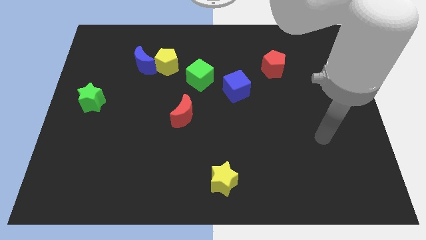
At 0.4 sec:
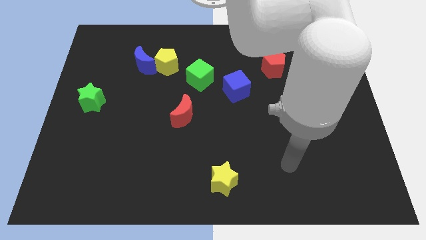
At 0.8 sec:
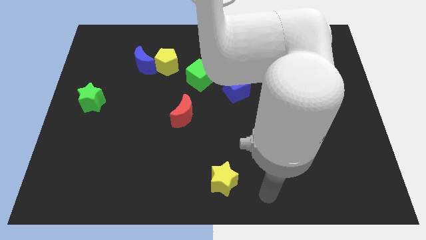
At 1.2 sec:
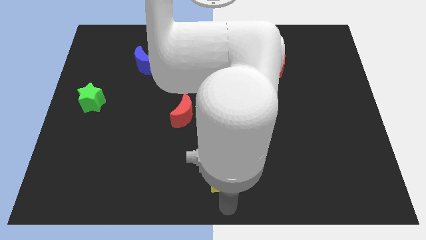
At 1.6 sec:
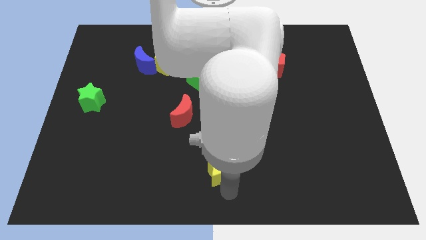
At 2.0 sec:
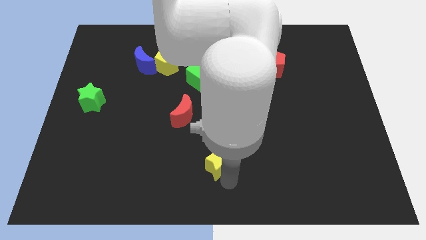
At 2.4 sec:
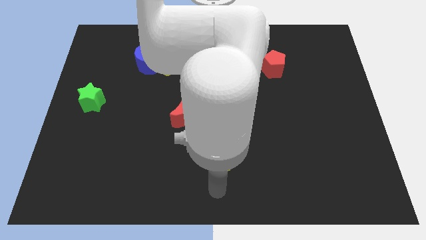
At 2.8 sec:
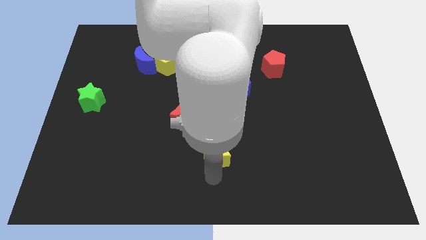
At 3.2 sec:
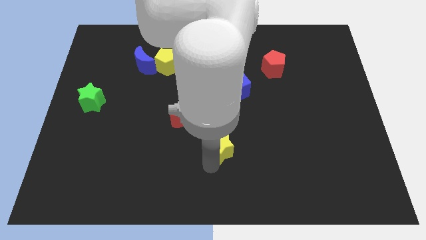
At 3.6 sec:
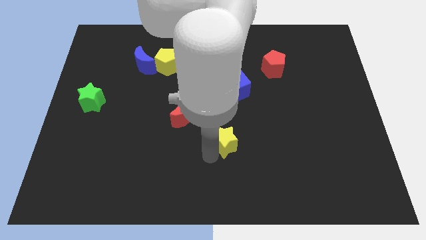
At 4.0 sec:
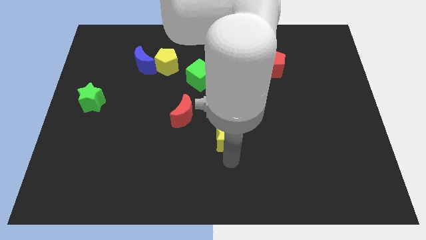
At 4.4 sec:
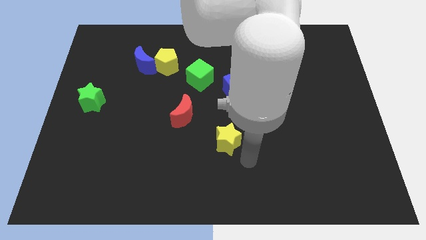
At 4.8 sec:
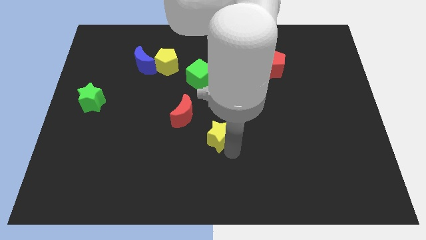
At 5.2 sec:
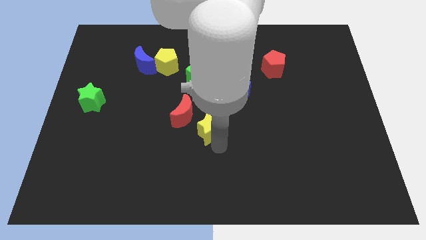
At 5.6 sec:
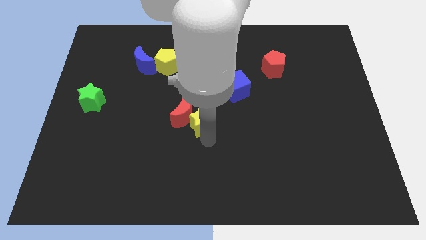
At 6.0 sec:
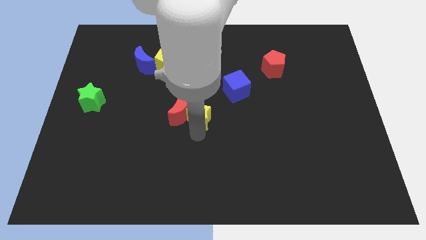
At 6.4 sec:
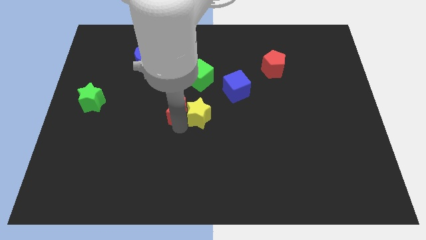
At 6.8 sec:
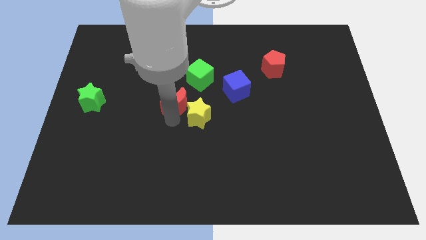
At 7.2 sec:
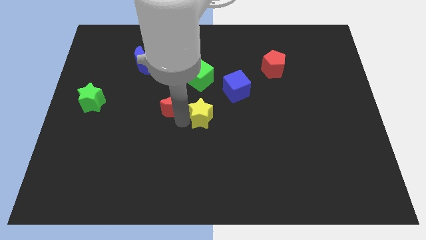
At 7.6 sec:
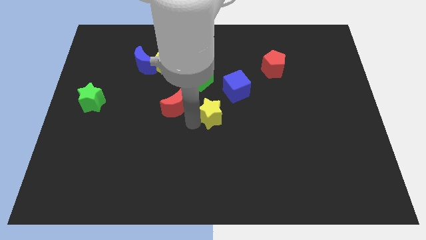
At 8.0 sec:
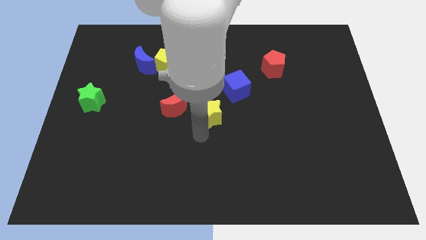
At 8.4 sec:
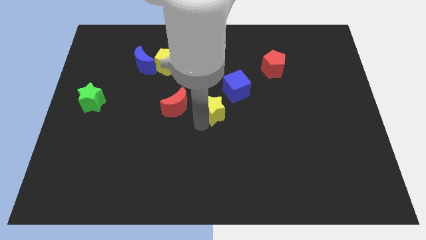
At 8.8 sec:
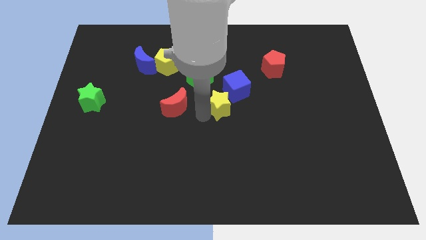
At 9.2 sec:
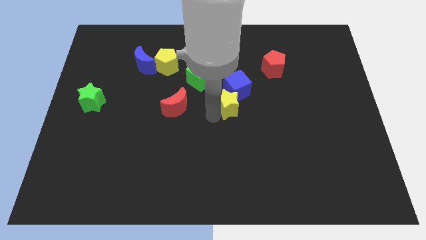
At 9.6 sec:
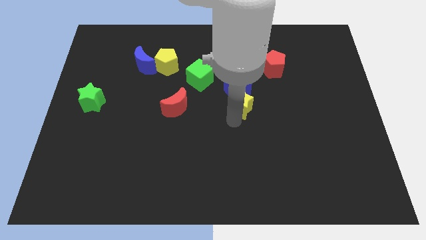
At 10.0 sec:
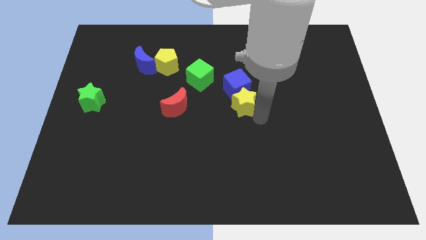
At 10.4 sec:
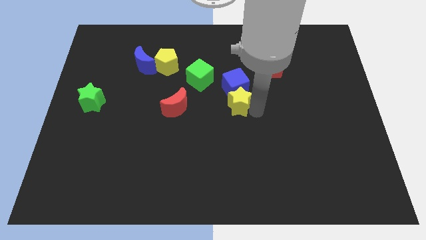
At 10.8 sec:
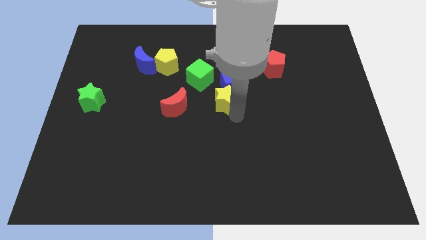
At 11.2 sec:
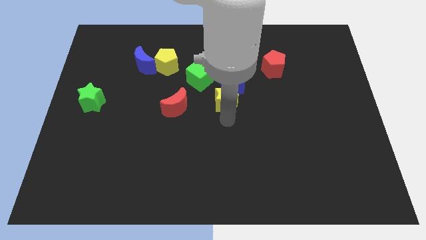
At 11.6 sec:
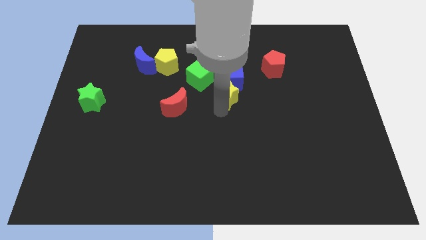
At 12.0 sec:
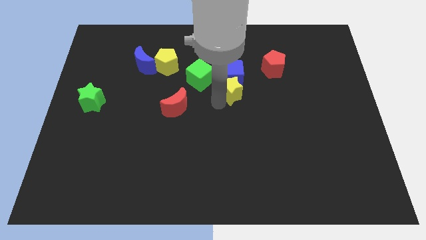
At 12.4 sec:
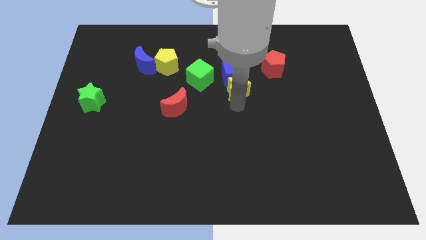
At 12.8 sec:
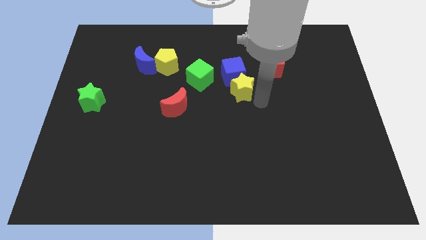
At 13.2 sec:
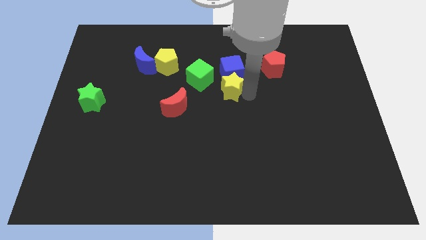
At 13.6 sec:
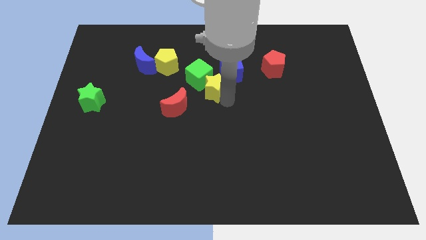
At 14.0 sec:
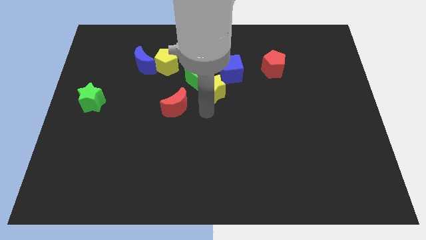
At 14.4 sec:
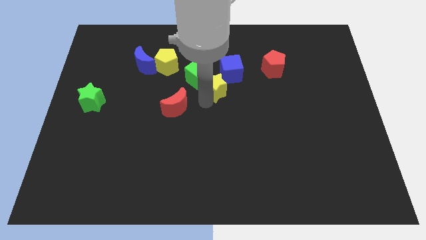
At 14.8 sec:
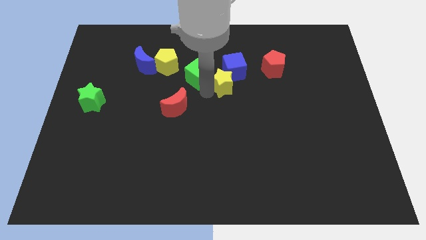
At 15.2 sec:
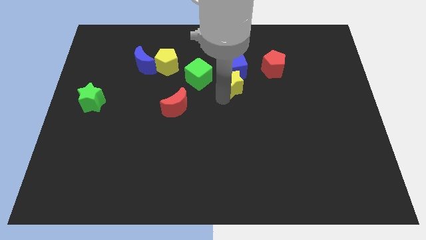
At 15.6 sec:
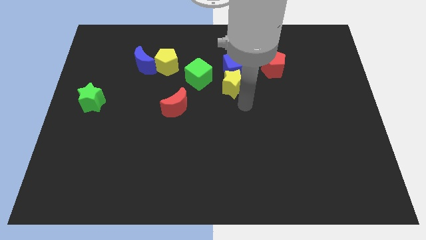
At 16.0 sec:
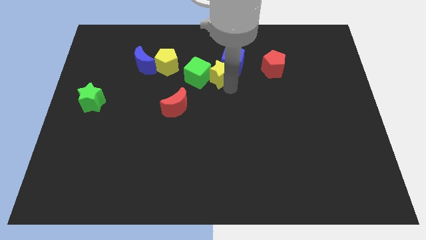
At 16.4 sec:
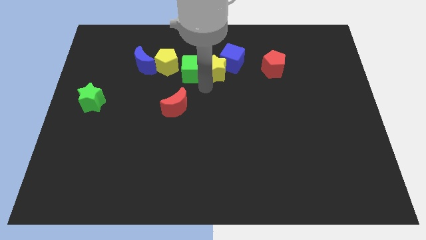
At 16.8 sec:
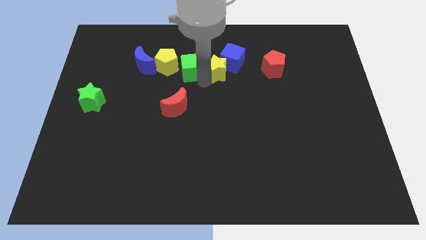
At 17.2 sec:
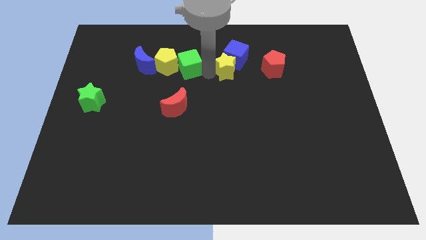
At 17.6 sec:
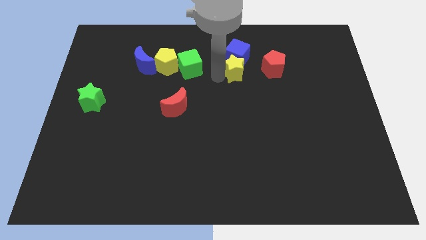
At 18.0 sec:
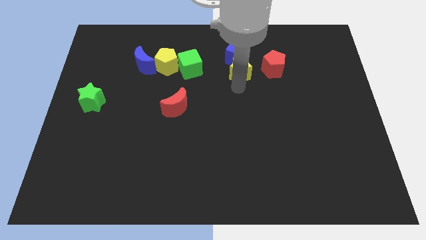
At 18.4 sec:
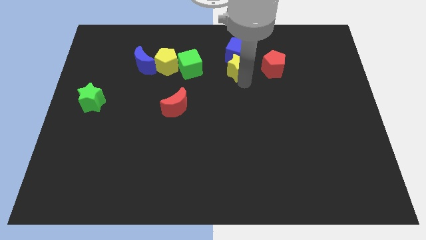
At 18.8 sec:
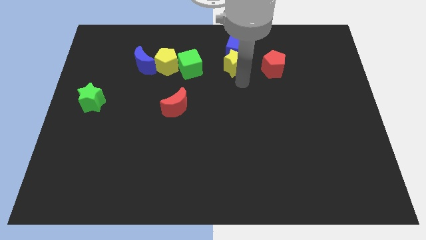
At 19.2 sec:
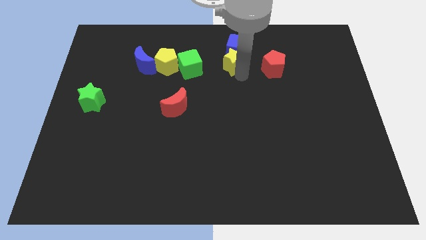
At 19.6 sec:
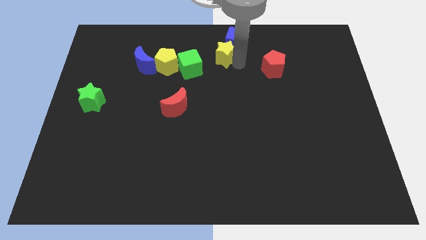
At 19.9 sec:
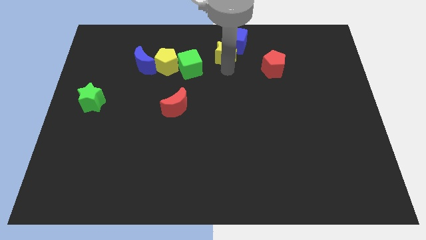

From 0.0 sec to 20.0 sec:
push the yellow star to the towards your base

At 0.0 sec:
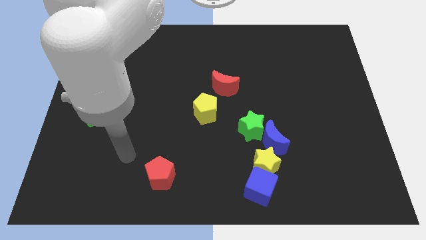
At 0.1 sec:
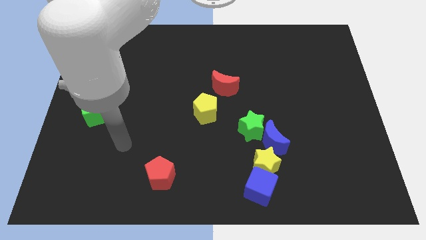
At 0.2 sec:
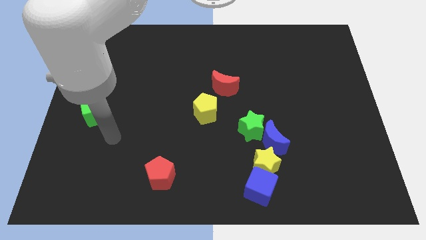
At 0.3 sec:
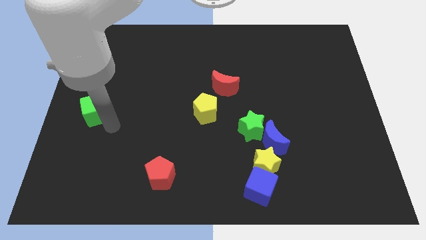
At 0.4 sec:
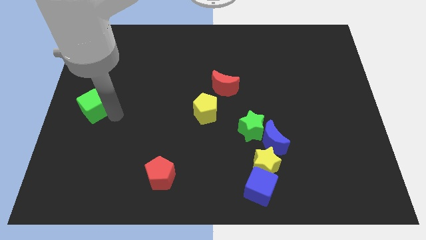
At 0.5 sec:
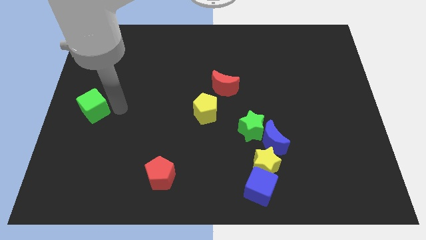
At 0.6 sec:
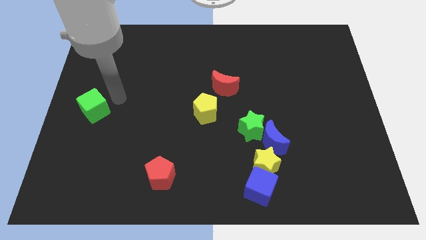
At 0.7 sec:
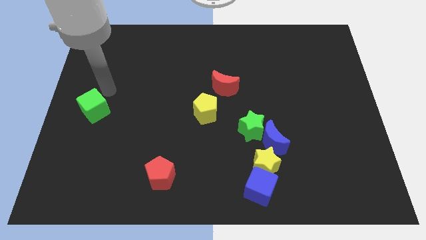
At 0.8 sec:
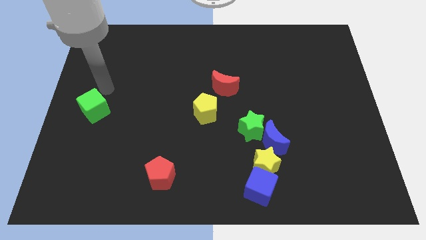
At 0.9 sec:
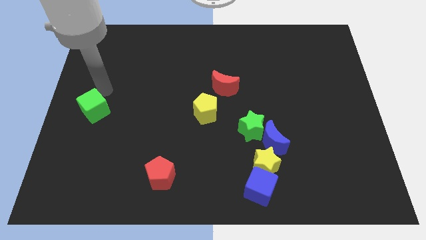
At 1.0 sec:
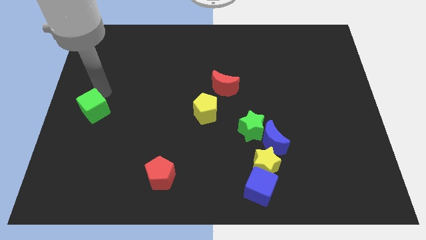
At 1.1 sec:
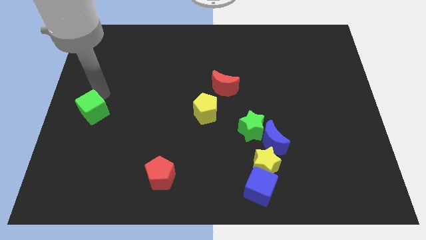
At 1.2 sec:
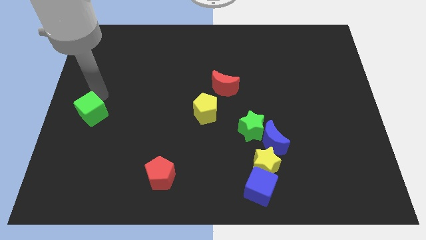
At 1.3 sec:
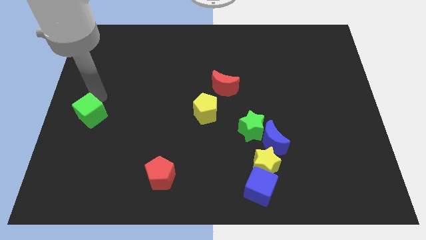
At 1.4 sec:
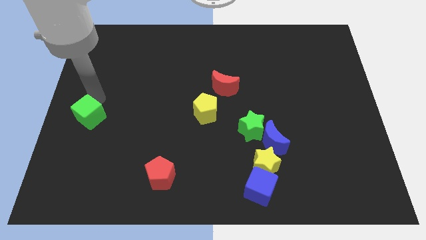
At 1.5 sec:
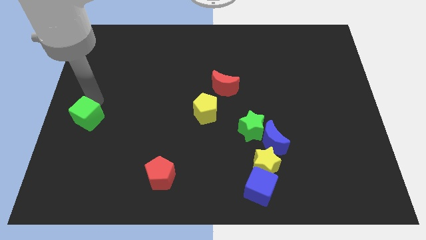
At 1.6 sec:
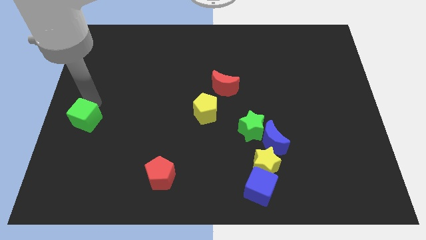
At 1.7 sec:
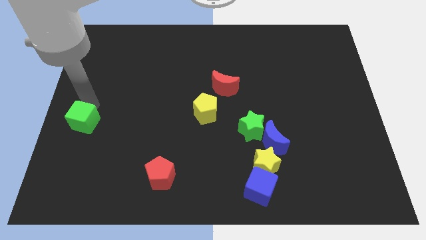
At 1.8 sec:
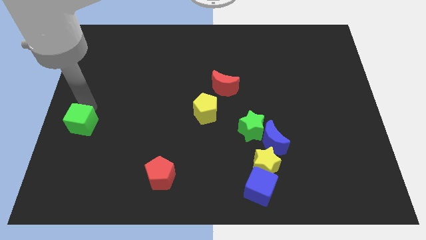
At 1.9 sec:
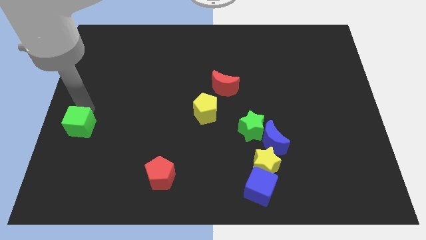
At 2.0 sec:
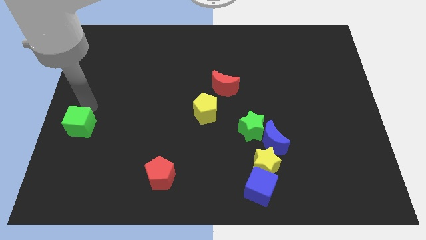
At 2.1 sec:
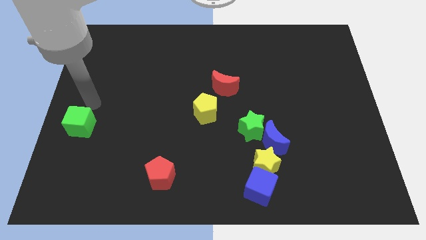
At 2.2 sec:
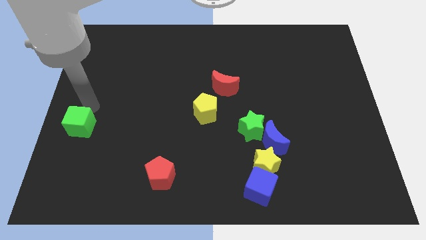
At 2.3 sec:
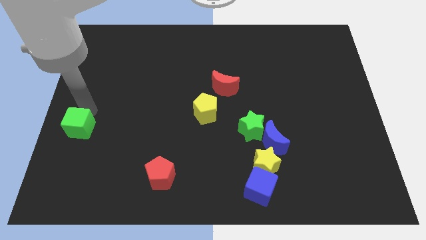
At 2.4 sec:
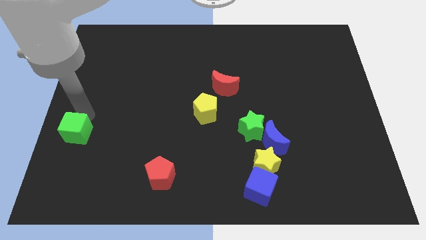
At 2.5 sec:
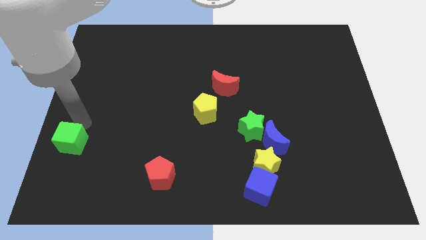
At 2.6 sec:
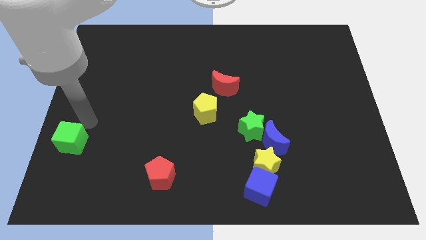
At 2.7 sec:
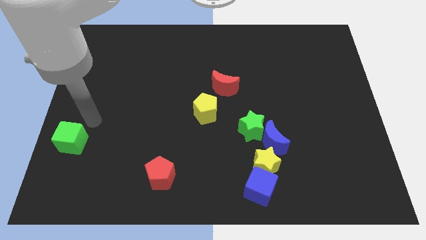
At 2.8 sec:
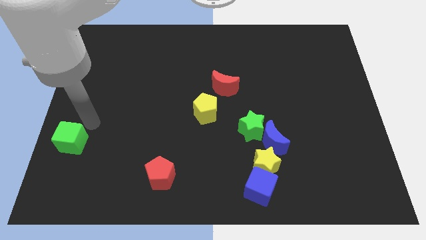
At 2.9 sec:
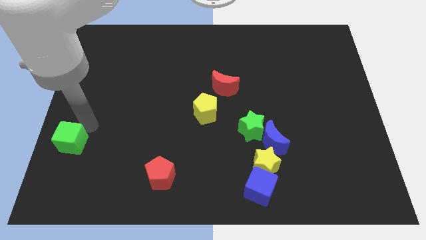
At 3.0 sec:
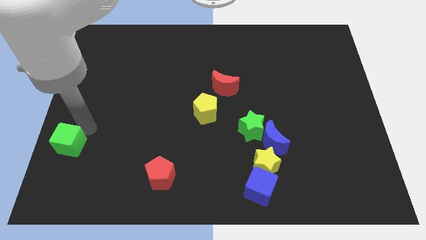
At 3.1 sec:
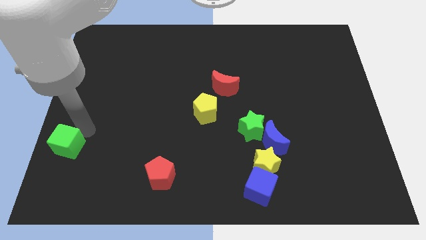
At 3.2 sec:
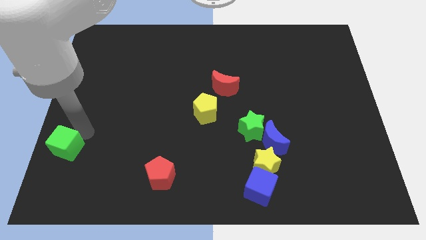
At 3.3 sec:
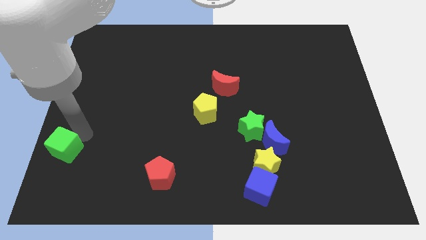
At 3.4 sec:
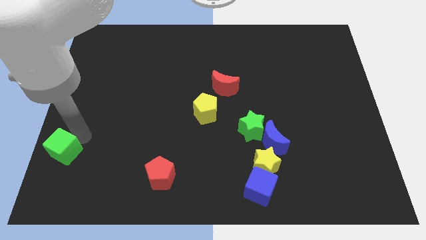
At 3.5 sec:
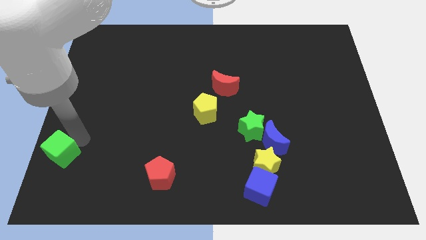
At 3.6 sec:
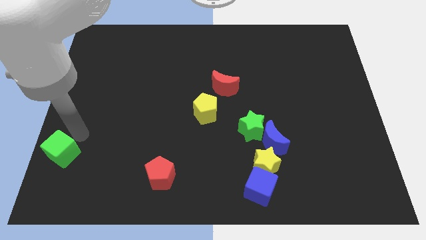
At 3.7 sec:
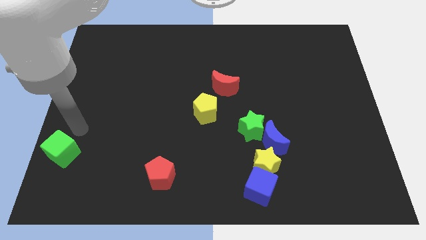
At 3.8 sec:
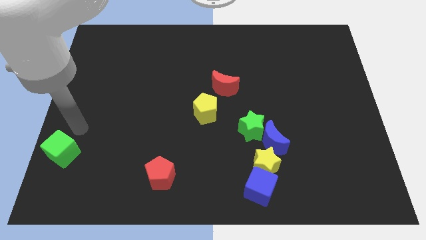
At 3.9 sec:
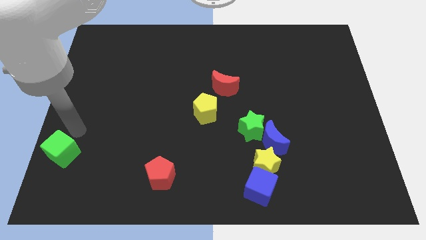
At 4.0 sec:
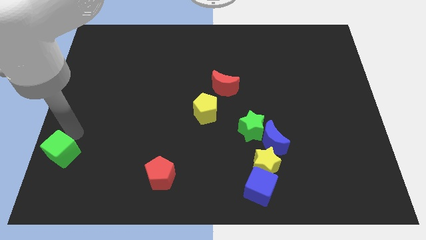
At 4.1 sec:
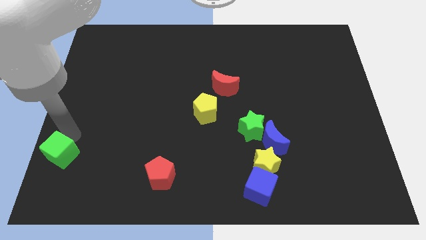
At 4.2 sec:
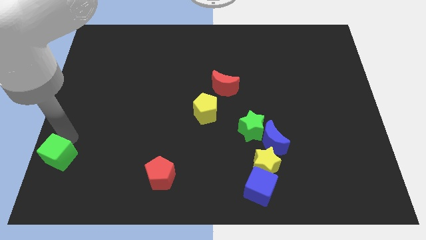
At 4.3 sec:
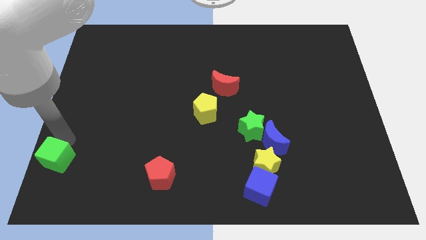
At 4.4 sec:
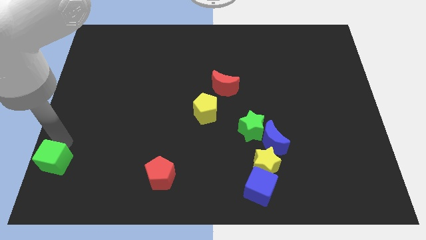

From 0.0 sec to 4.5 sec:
slide the green cube to the lower left corner
